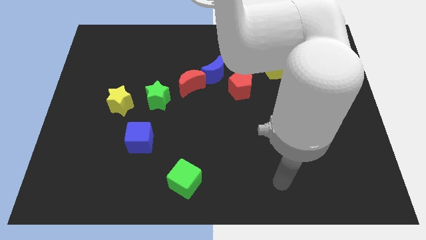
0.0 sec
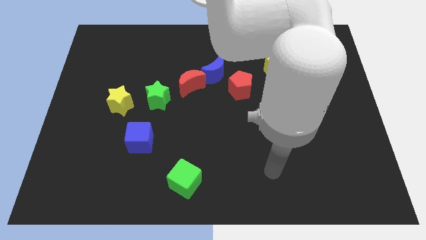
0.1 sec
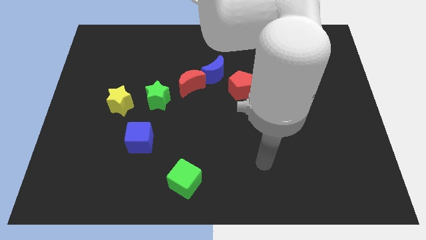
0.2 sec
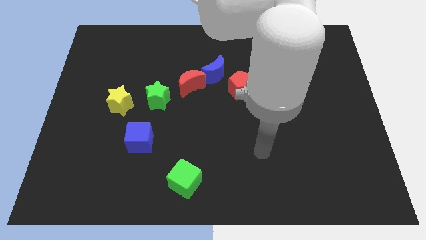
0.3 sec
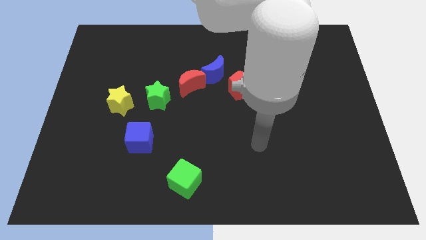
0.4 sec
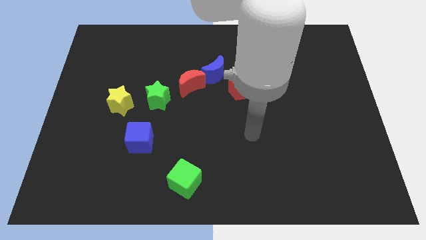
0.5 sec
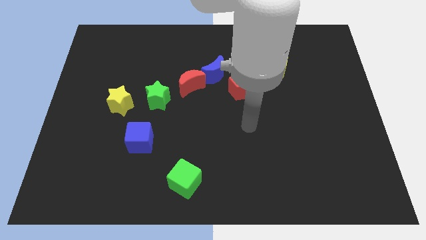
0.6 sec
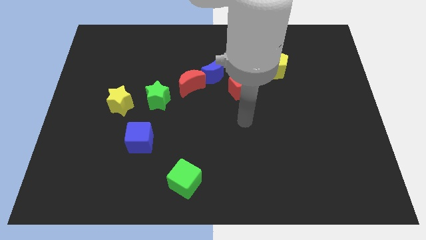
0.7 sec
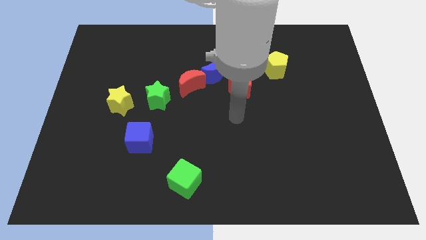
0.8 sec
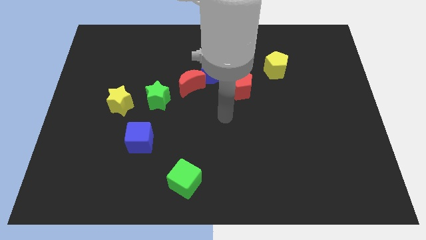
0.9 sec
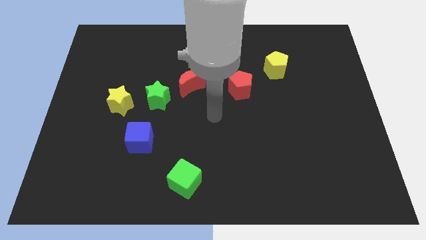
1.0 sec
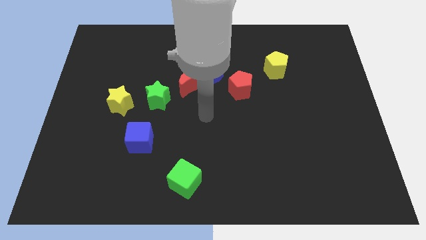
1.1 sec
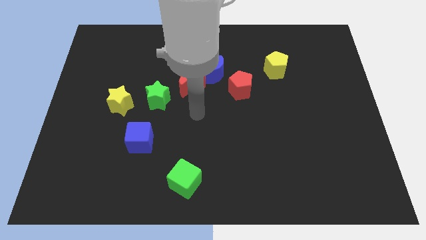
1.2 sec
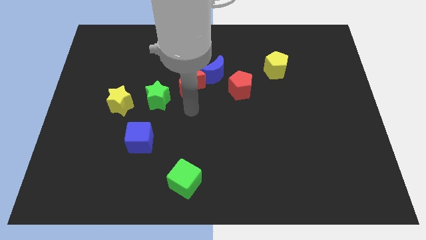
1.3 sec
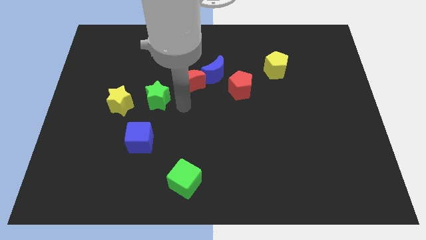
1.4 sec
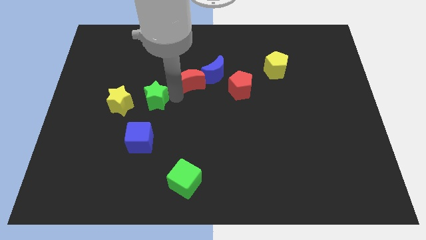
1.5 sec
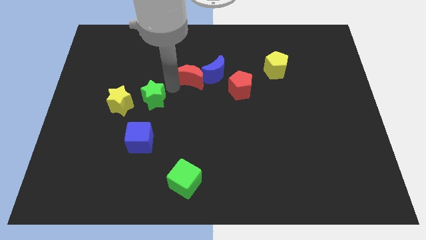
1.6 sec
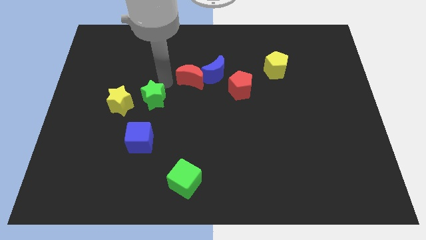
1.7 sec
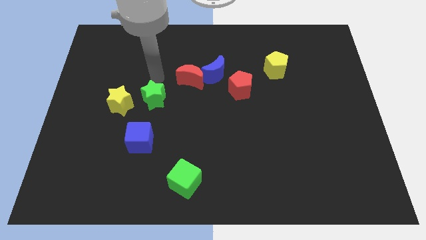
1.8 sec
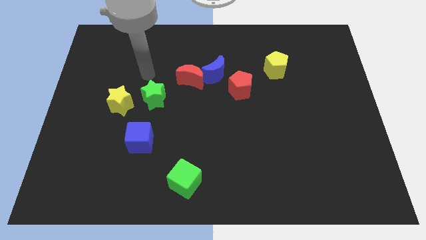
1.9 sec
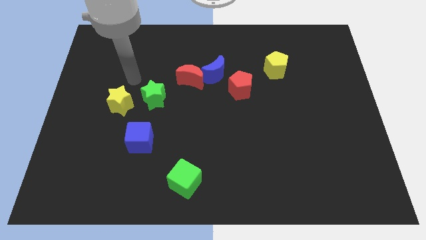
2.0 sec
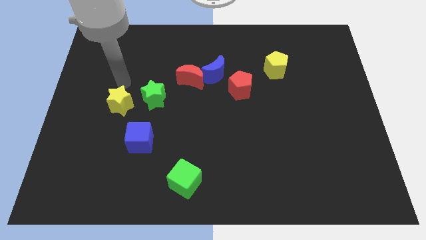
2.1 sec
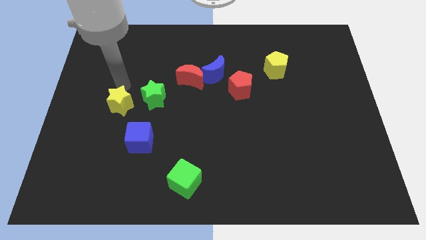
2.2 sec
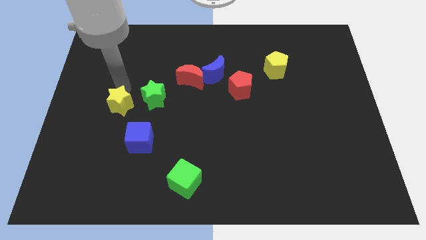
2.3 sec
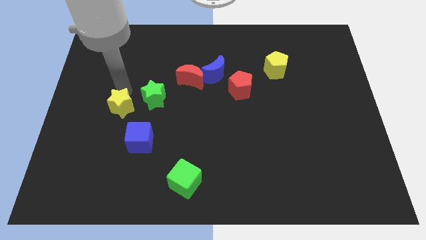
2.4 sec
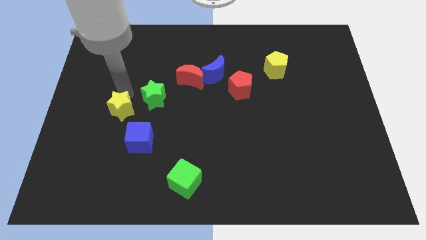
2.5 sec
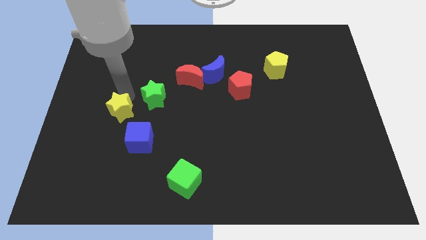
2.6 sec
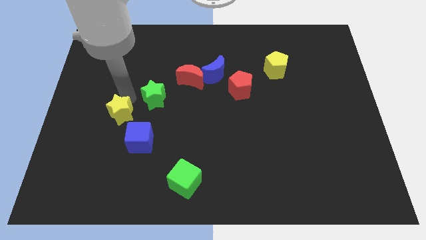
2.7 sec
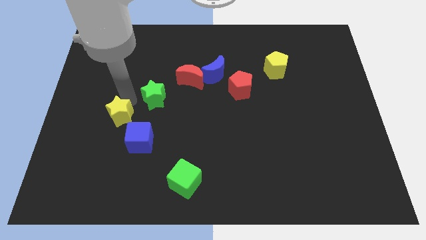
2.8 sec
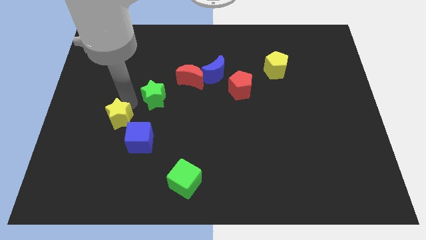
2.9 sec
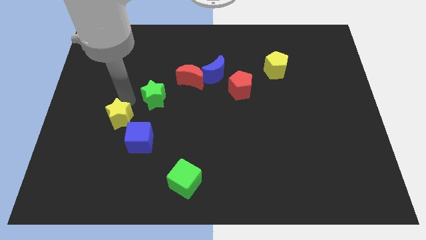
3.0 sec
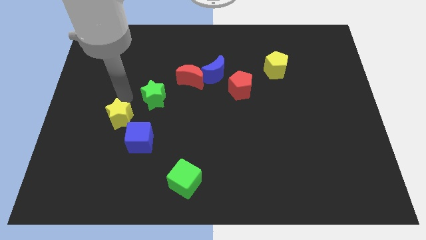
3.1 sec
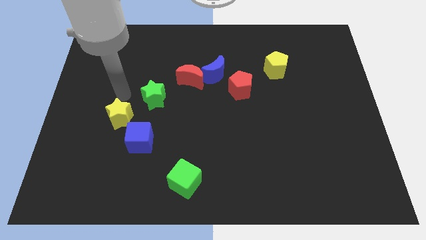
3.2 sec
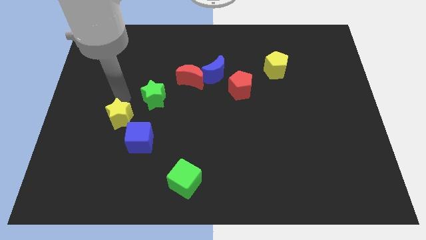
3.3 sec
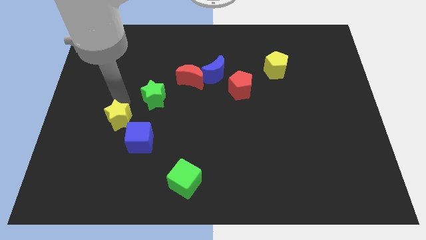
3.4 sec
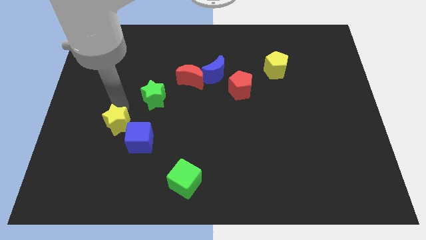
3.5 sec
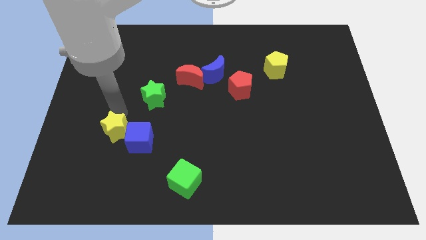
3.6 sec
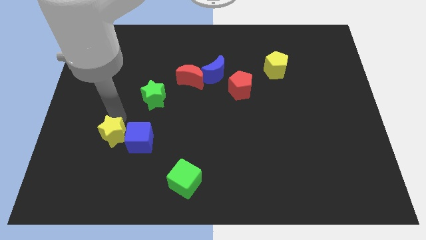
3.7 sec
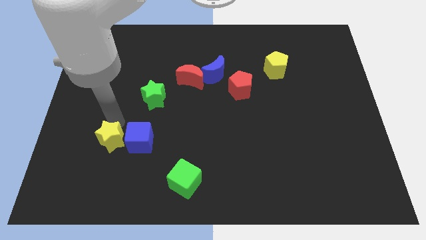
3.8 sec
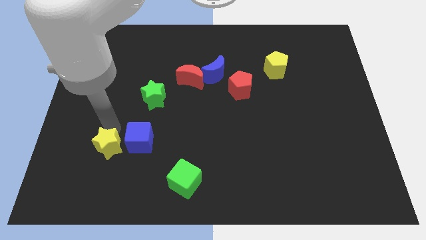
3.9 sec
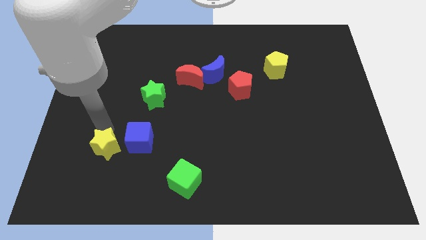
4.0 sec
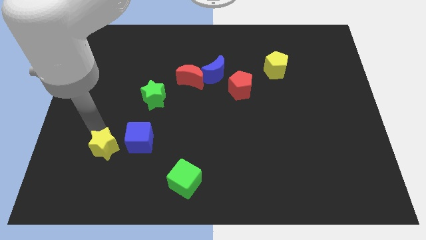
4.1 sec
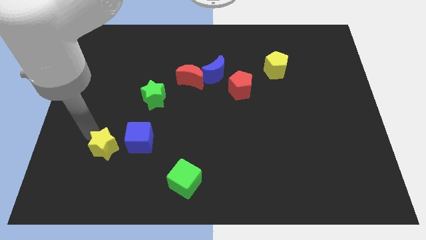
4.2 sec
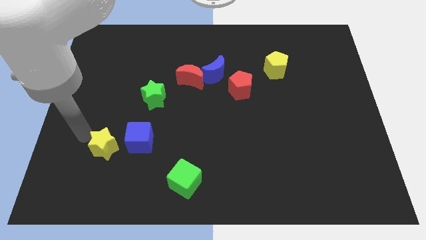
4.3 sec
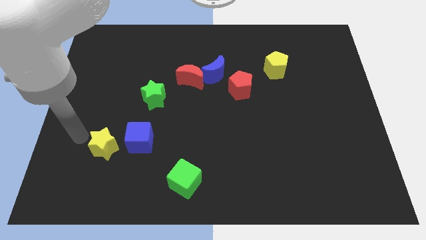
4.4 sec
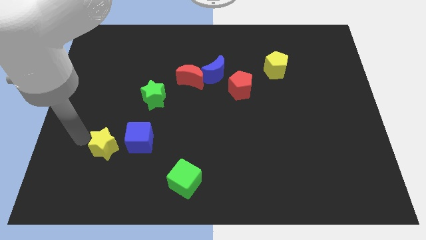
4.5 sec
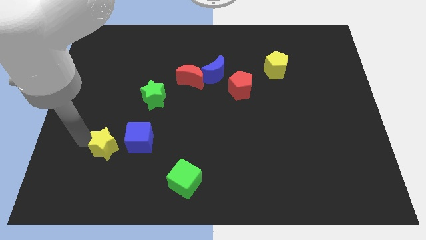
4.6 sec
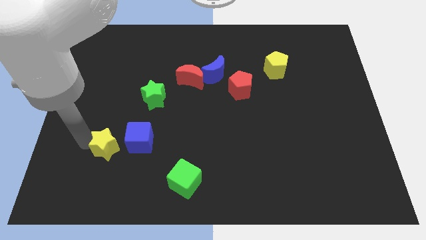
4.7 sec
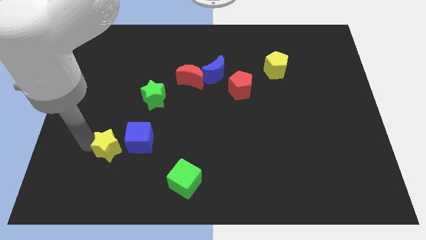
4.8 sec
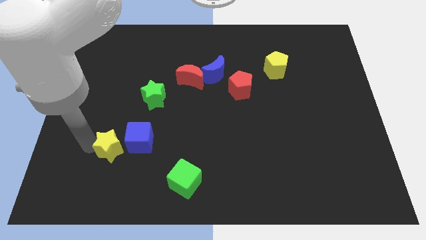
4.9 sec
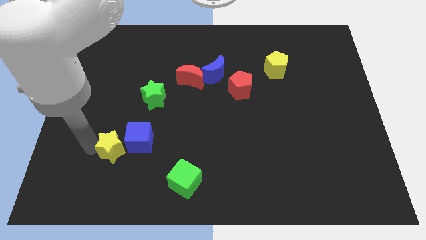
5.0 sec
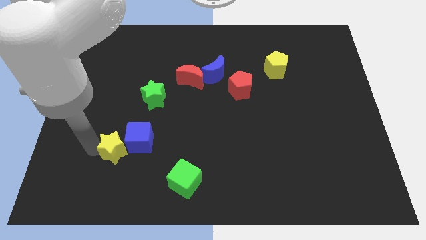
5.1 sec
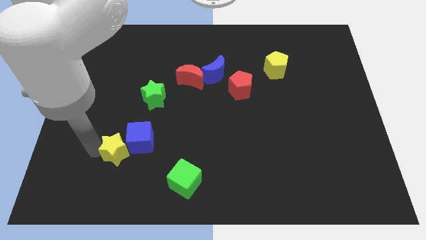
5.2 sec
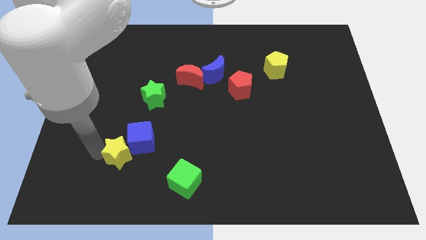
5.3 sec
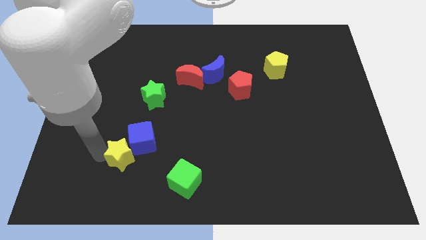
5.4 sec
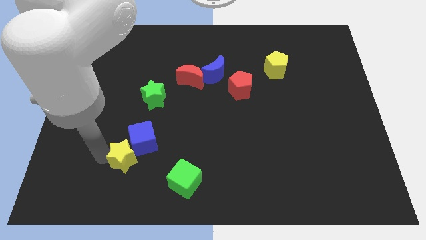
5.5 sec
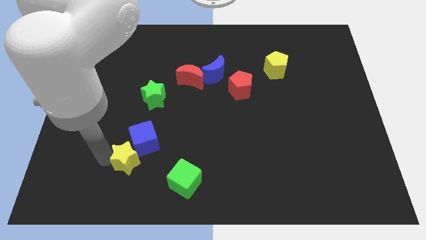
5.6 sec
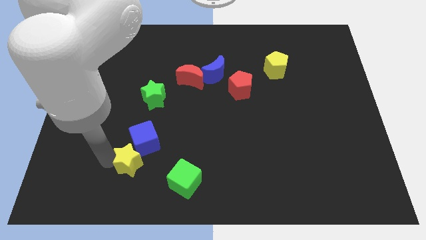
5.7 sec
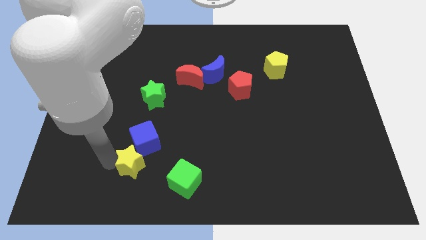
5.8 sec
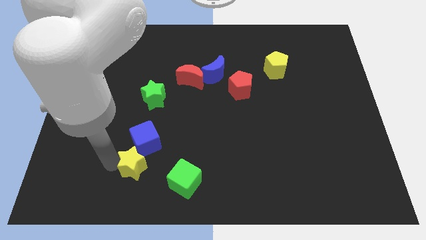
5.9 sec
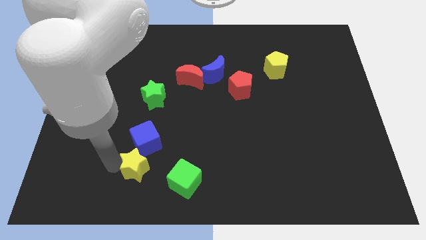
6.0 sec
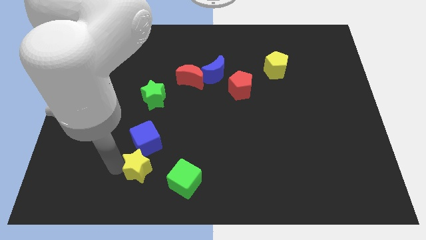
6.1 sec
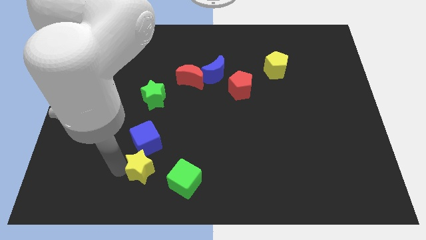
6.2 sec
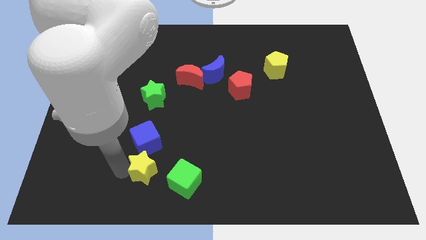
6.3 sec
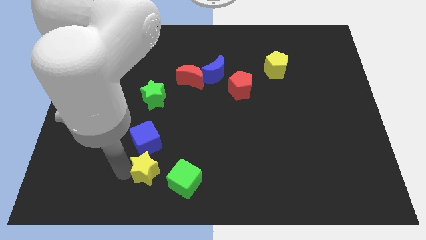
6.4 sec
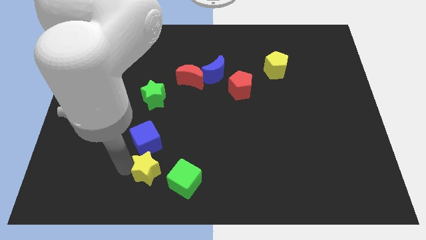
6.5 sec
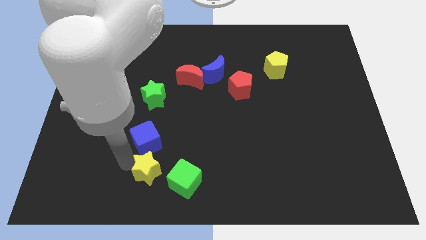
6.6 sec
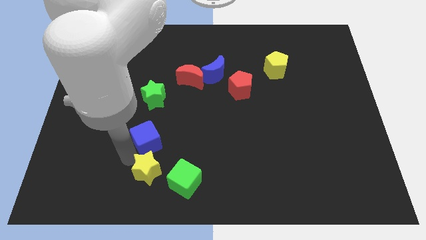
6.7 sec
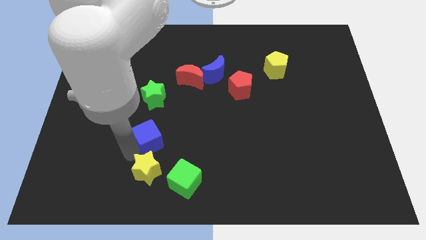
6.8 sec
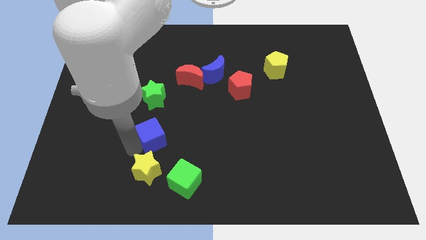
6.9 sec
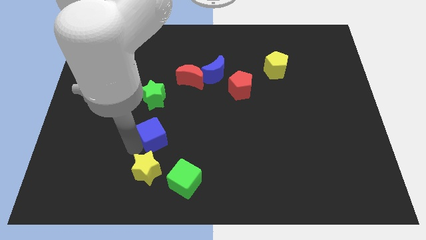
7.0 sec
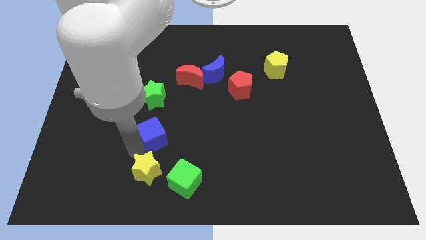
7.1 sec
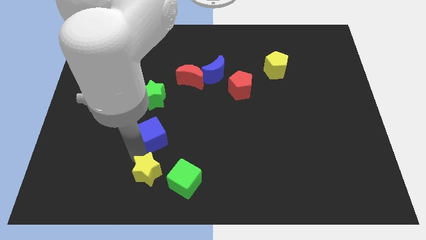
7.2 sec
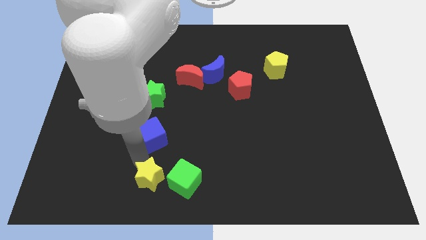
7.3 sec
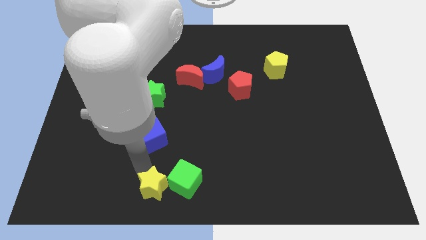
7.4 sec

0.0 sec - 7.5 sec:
put the yellow star to the bottom
